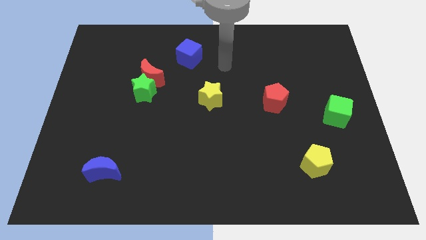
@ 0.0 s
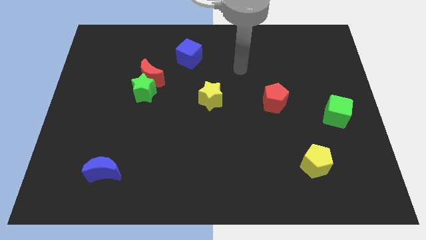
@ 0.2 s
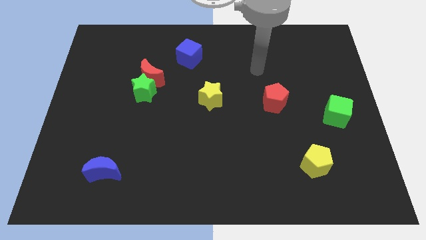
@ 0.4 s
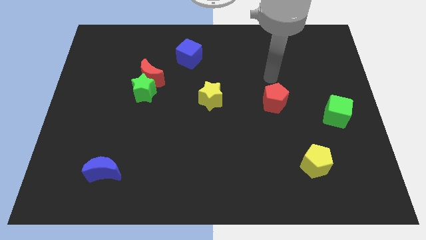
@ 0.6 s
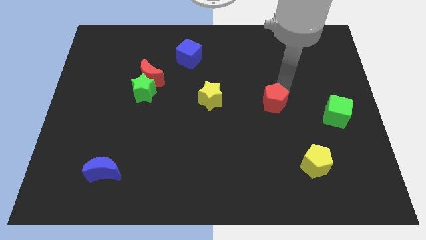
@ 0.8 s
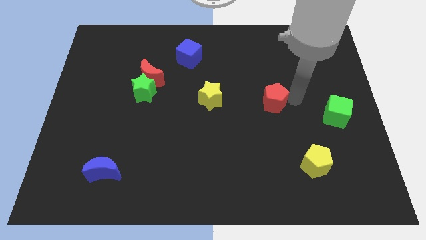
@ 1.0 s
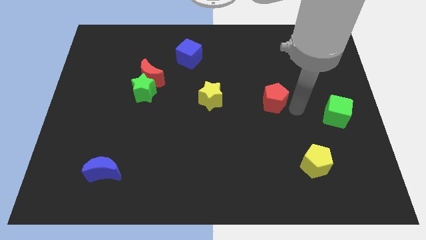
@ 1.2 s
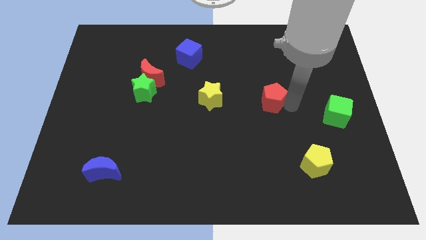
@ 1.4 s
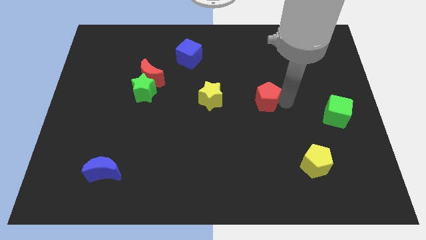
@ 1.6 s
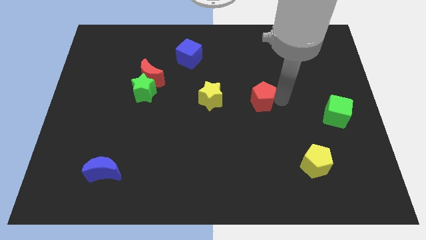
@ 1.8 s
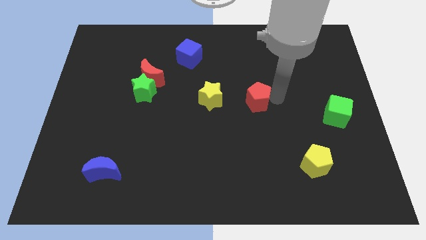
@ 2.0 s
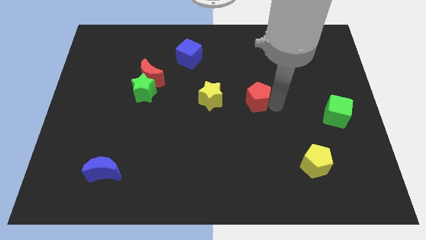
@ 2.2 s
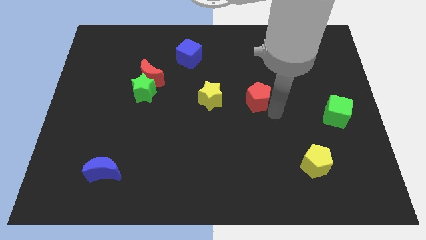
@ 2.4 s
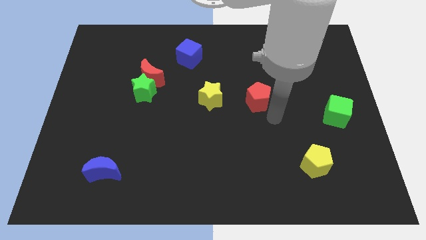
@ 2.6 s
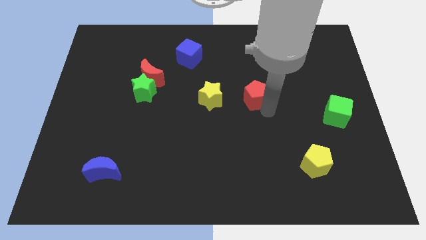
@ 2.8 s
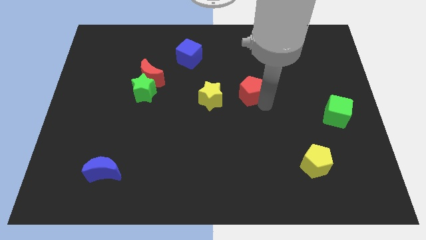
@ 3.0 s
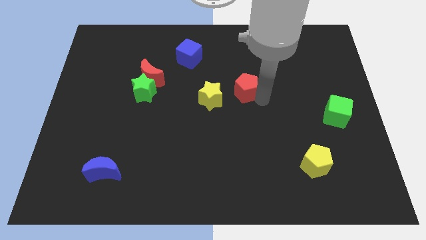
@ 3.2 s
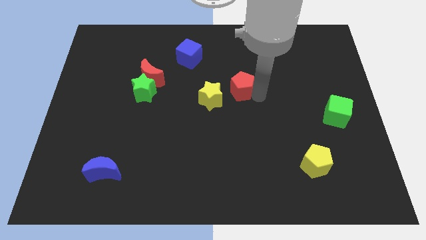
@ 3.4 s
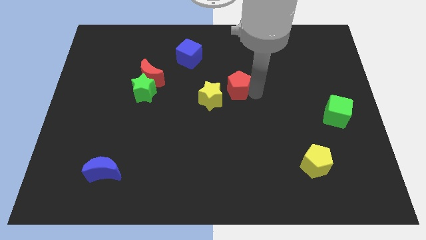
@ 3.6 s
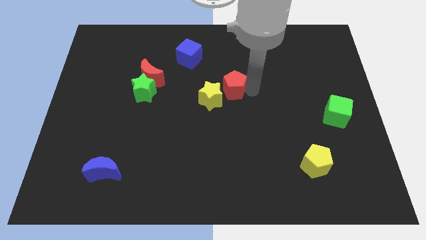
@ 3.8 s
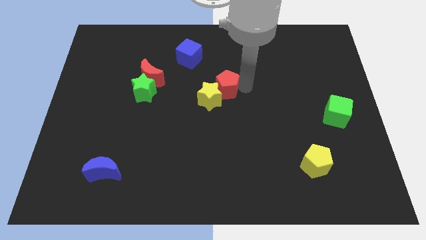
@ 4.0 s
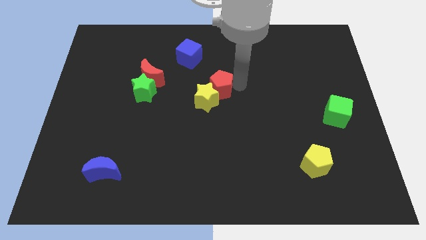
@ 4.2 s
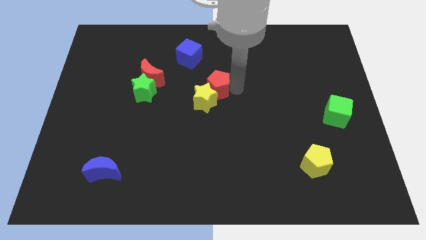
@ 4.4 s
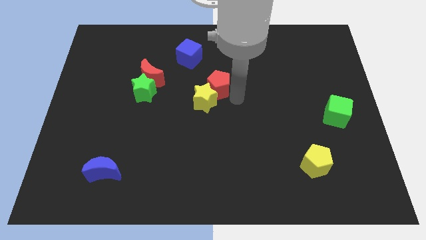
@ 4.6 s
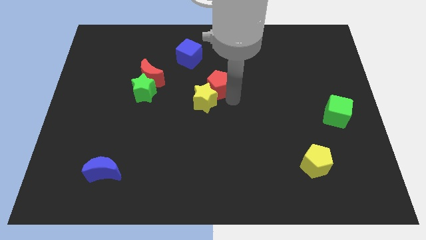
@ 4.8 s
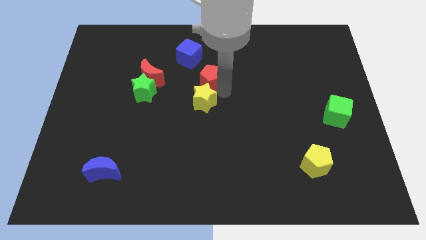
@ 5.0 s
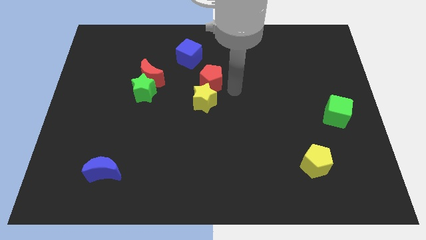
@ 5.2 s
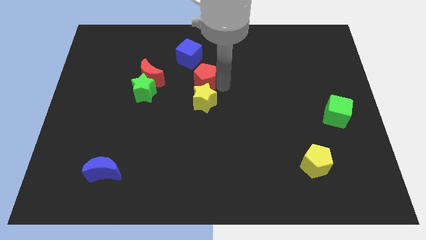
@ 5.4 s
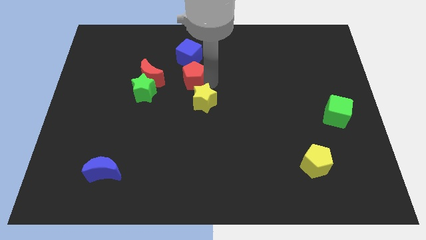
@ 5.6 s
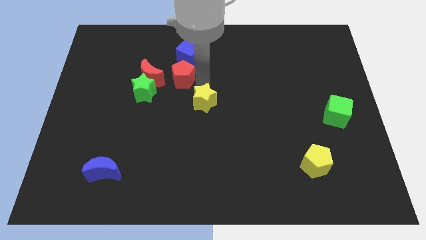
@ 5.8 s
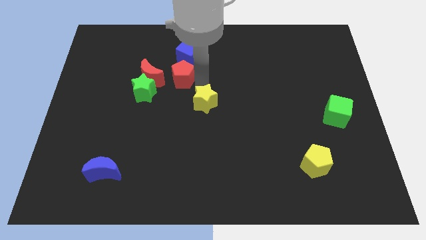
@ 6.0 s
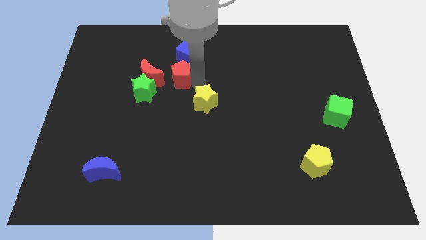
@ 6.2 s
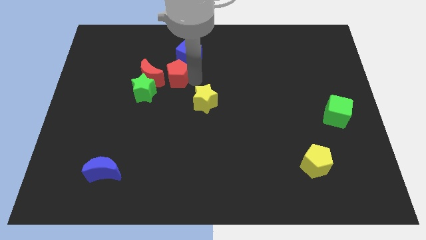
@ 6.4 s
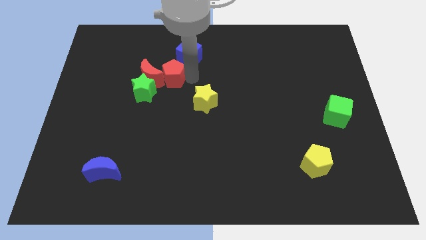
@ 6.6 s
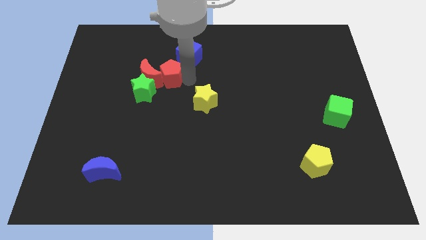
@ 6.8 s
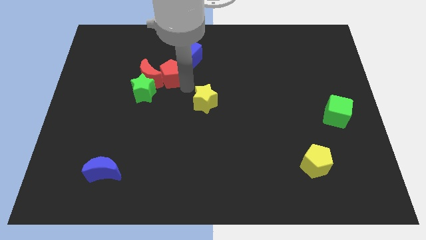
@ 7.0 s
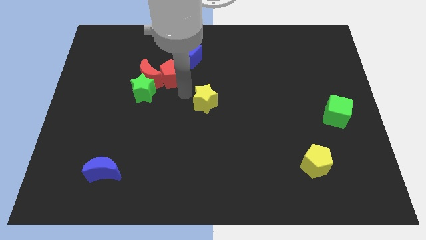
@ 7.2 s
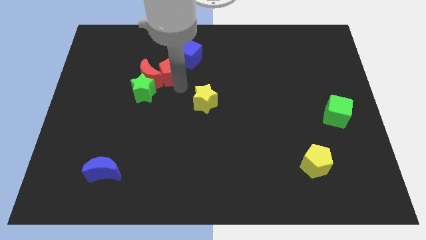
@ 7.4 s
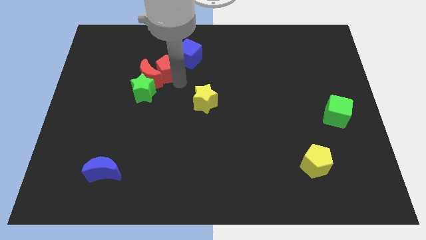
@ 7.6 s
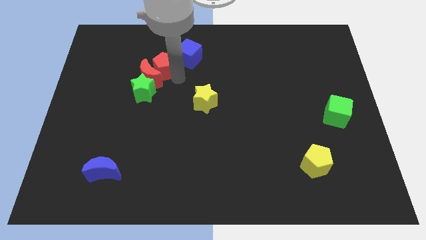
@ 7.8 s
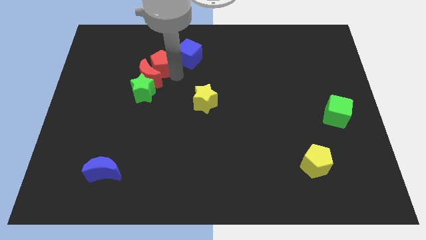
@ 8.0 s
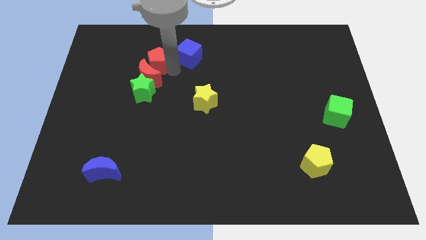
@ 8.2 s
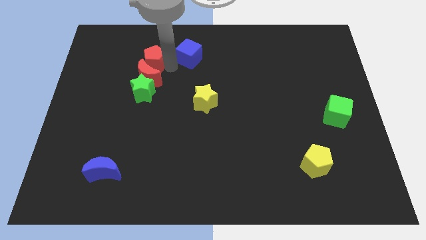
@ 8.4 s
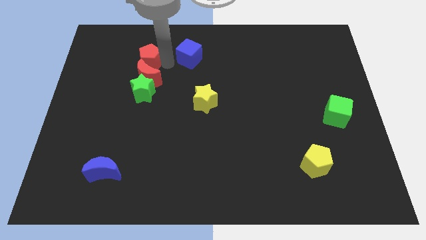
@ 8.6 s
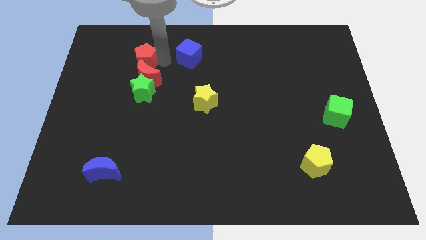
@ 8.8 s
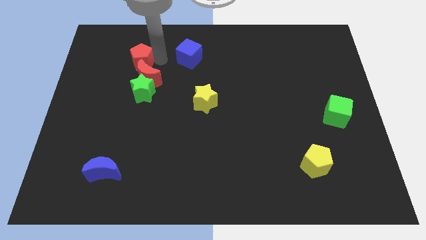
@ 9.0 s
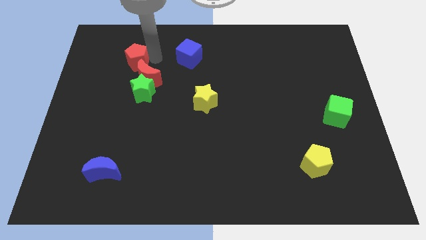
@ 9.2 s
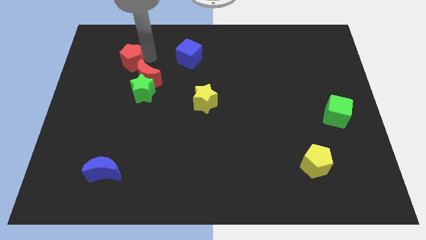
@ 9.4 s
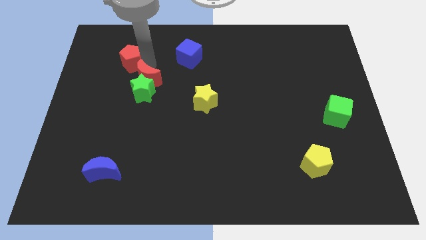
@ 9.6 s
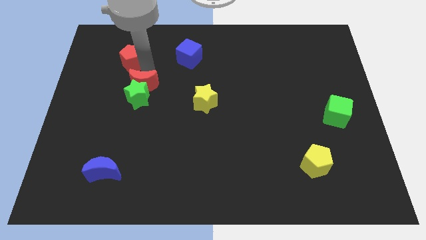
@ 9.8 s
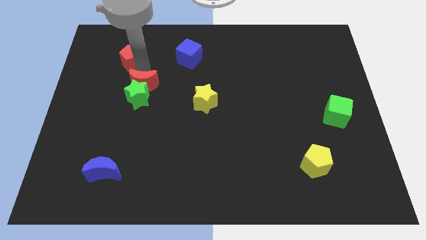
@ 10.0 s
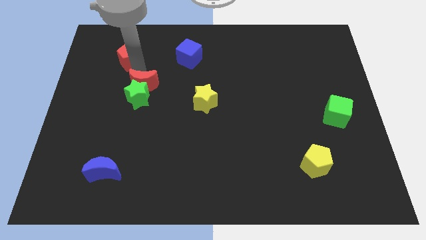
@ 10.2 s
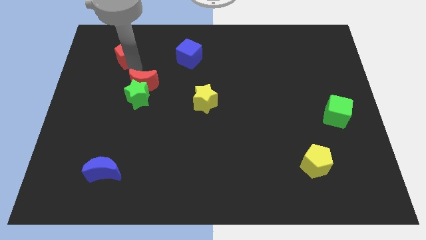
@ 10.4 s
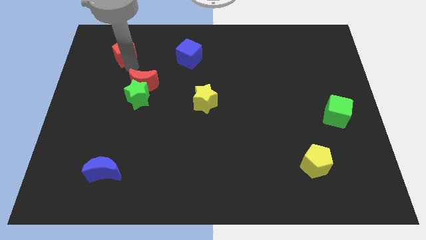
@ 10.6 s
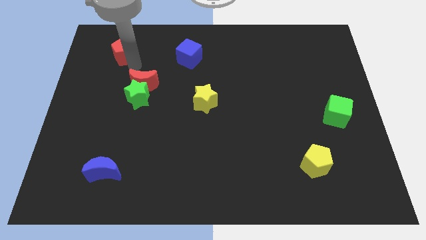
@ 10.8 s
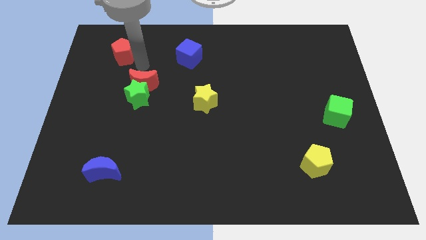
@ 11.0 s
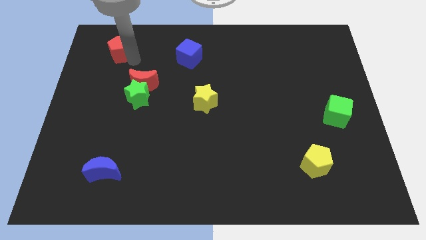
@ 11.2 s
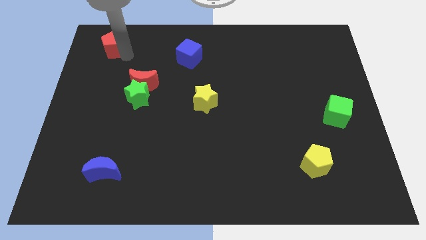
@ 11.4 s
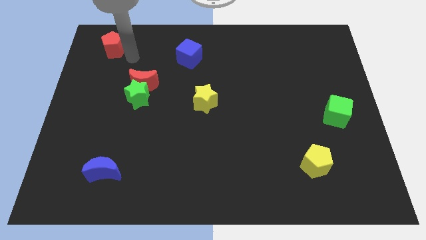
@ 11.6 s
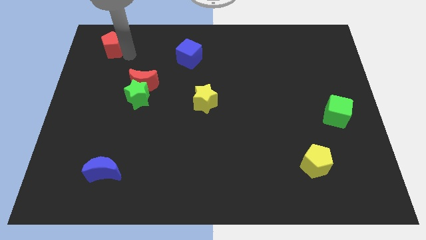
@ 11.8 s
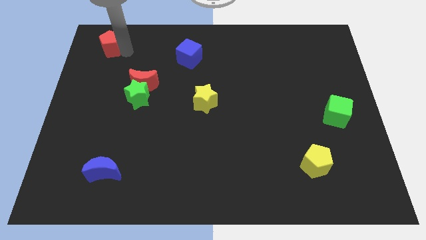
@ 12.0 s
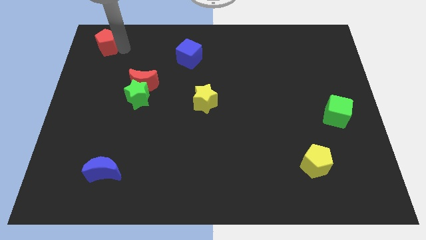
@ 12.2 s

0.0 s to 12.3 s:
move the red pentagon to the upper left corner
